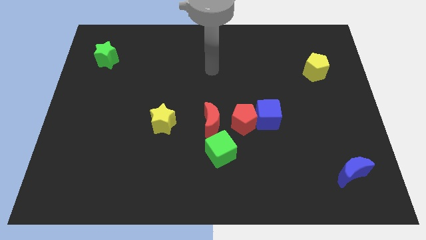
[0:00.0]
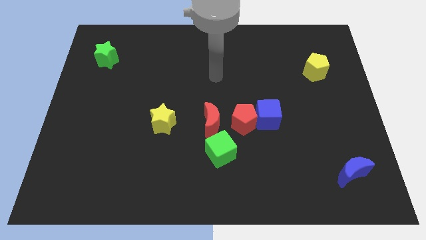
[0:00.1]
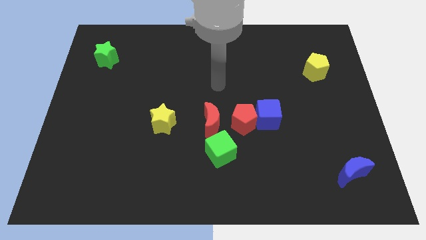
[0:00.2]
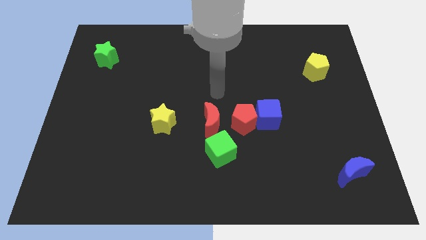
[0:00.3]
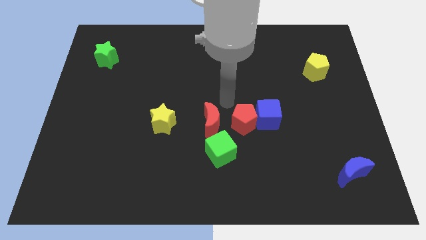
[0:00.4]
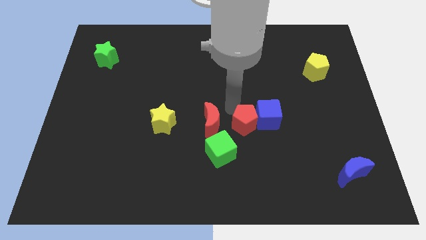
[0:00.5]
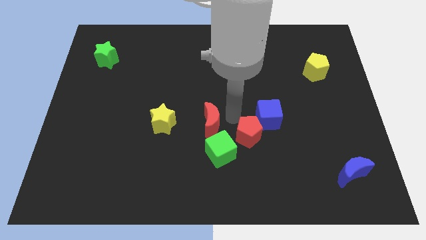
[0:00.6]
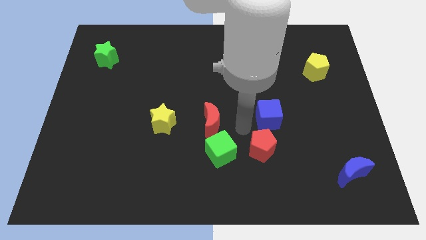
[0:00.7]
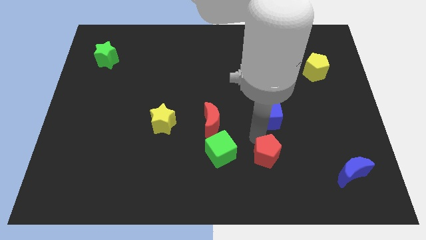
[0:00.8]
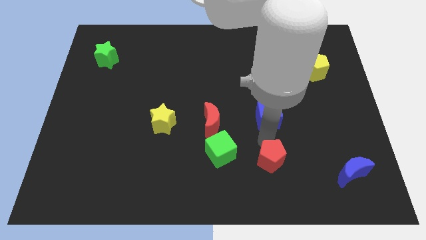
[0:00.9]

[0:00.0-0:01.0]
separate the blue cube from the red pentagon

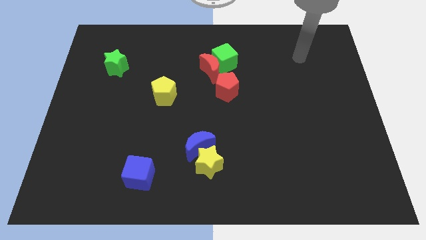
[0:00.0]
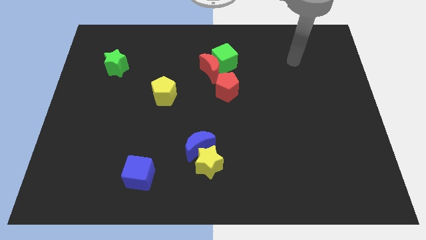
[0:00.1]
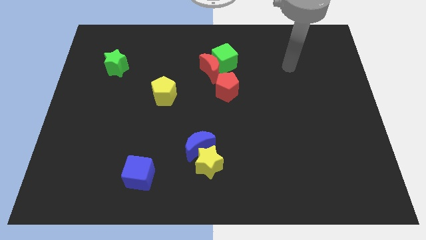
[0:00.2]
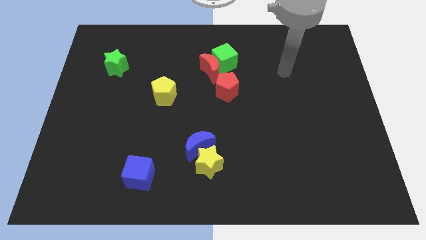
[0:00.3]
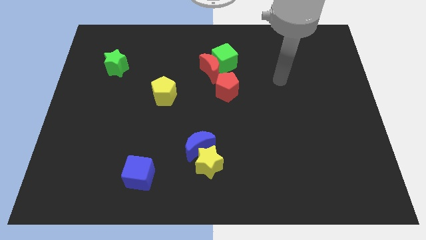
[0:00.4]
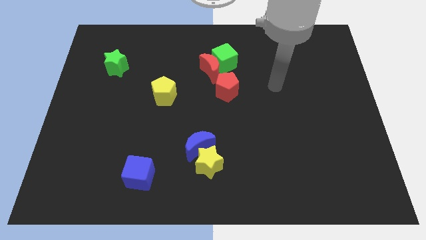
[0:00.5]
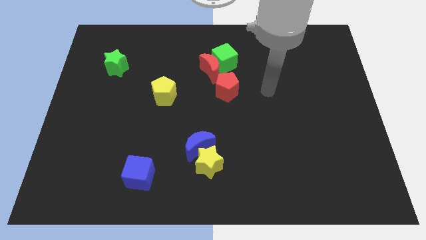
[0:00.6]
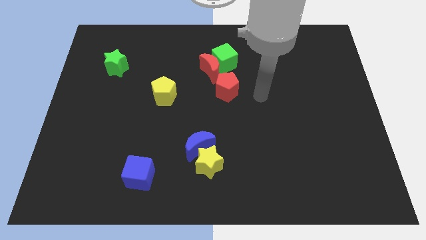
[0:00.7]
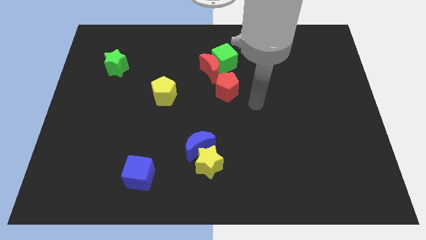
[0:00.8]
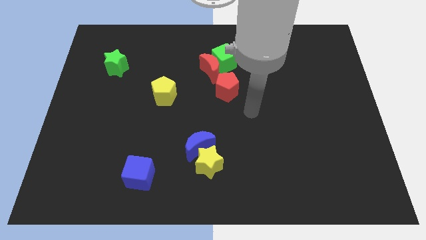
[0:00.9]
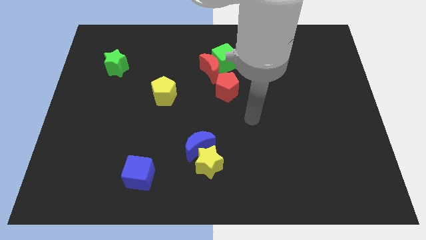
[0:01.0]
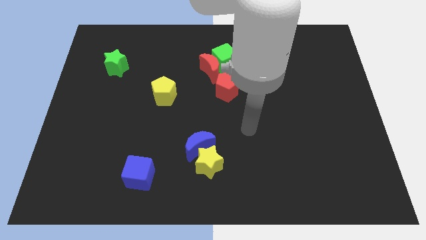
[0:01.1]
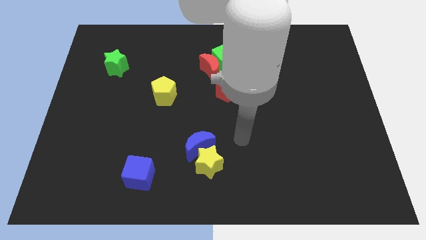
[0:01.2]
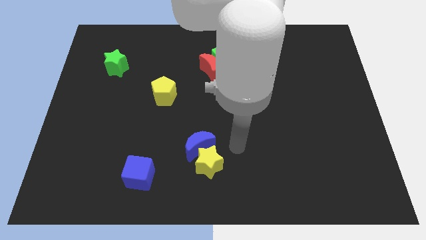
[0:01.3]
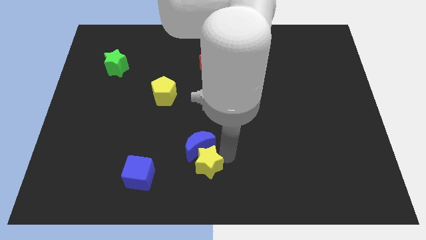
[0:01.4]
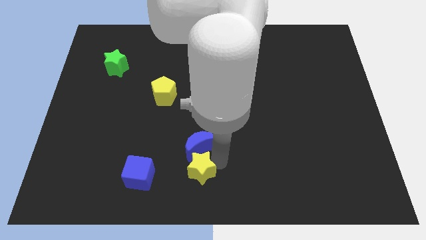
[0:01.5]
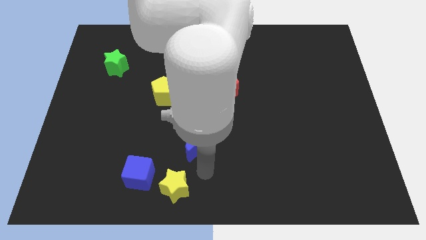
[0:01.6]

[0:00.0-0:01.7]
separate the blue moon from the yellow star

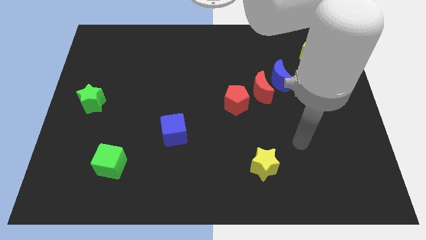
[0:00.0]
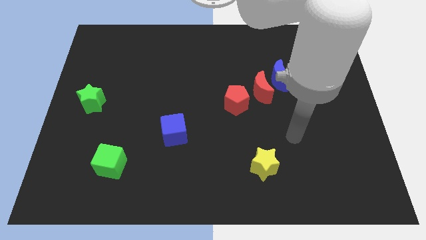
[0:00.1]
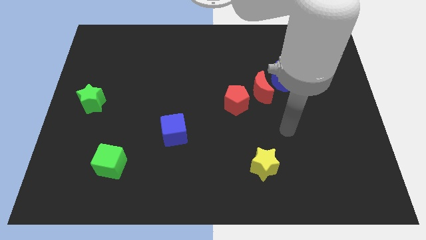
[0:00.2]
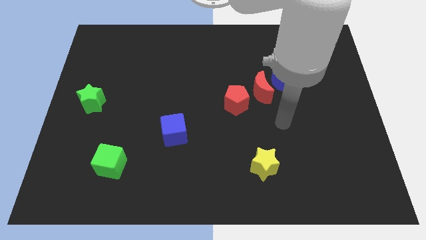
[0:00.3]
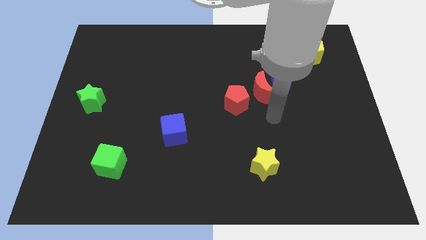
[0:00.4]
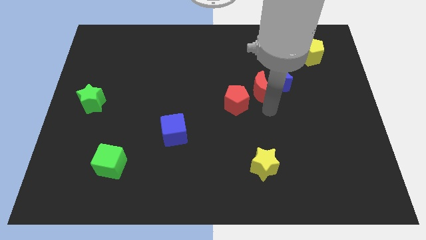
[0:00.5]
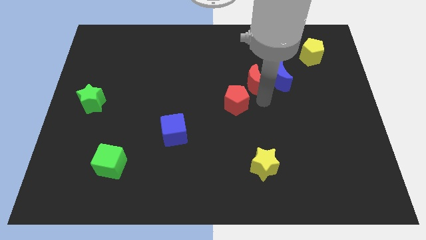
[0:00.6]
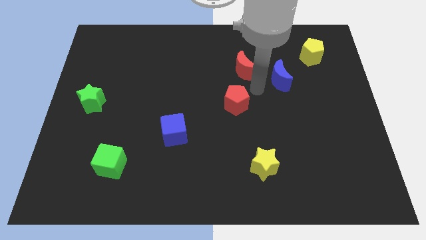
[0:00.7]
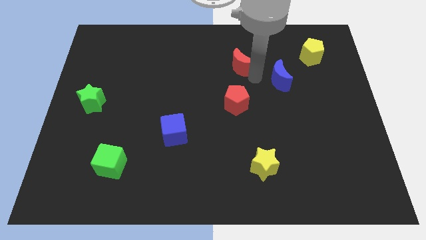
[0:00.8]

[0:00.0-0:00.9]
move the blue moon away from the red moon

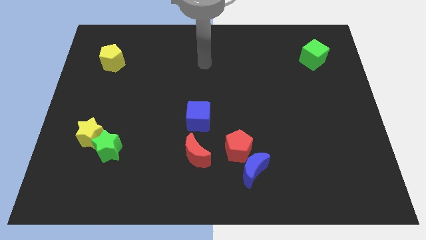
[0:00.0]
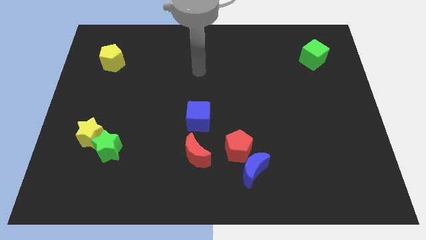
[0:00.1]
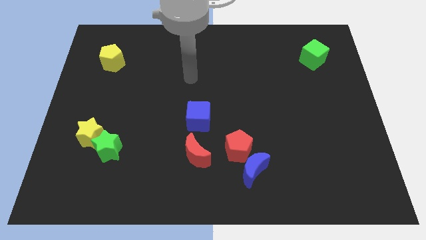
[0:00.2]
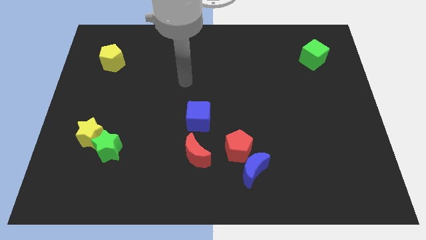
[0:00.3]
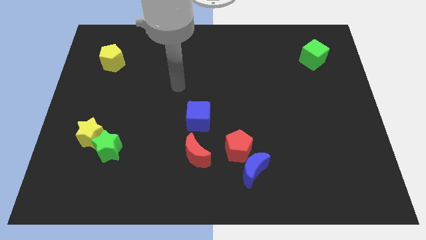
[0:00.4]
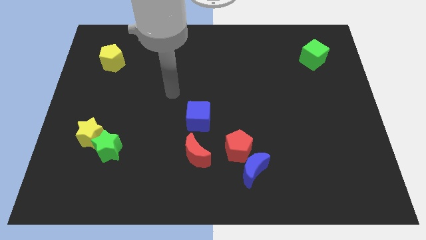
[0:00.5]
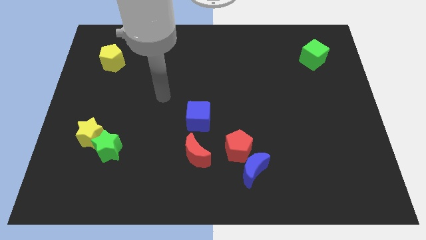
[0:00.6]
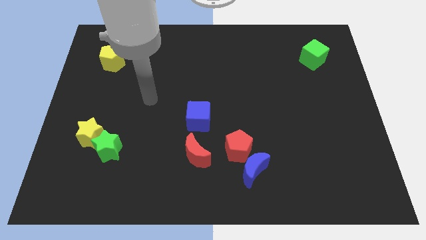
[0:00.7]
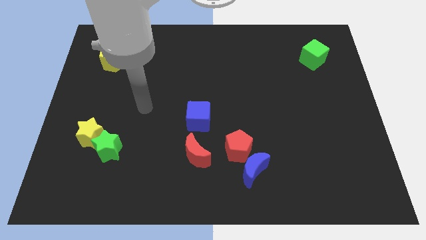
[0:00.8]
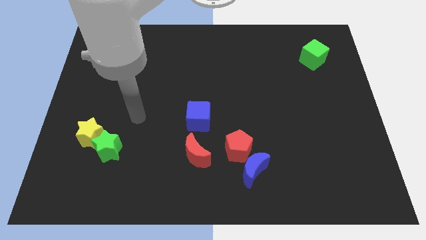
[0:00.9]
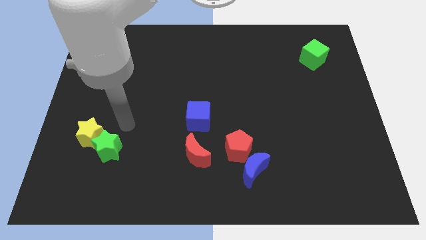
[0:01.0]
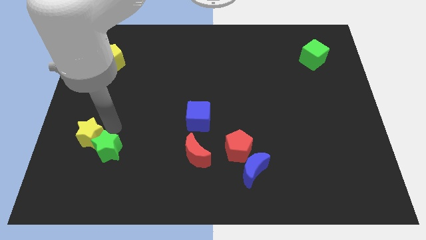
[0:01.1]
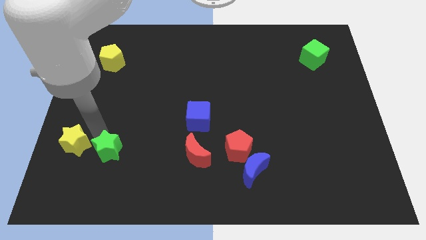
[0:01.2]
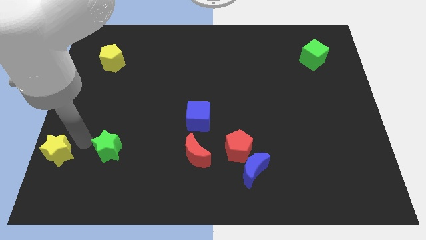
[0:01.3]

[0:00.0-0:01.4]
move the green star away from the yellow star

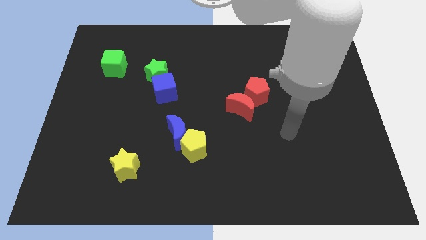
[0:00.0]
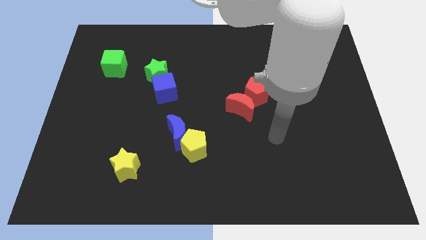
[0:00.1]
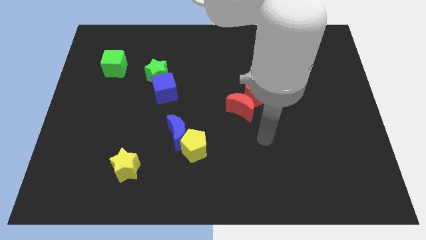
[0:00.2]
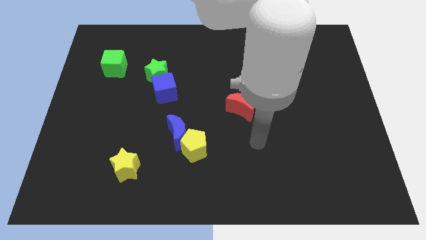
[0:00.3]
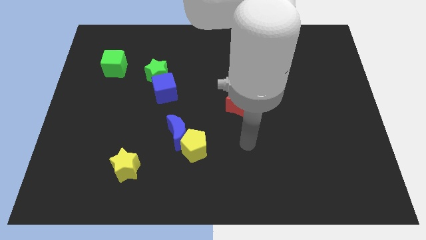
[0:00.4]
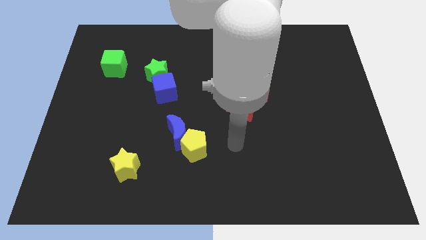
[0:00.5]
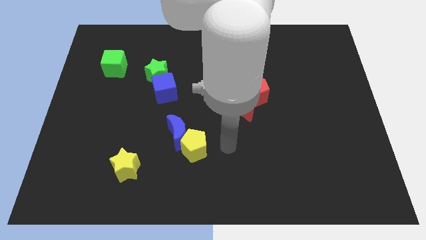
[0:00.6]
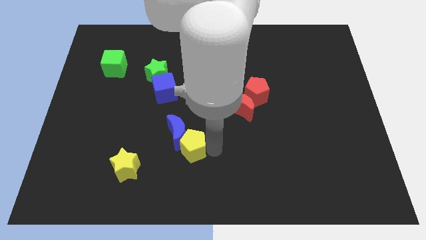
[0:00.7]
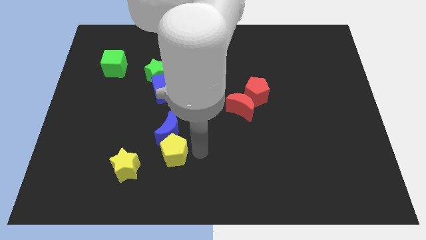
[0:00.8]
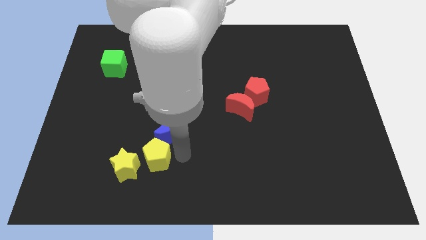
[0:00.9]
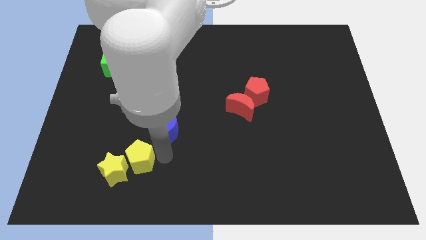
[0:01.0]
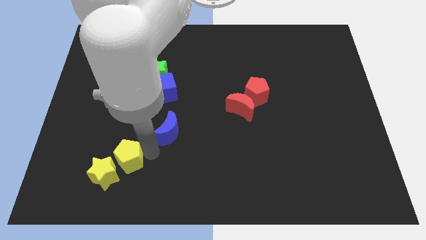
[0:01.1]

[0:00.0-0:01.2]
move the blue moon away from the yellow pentagon

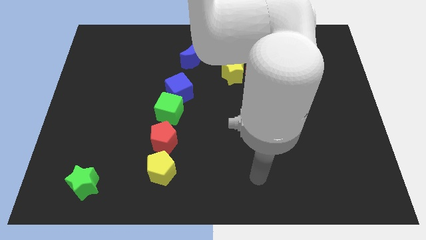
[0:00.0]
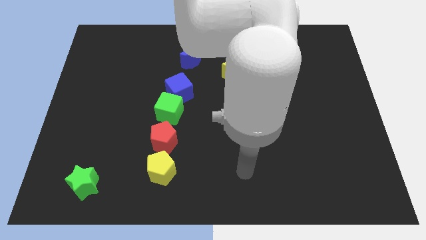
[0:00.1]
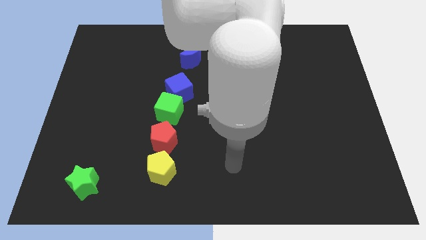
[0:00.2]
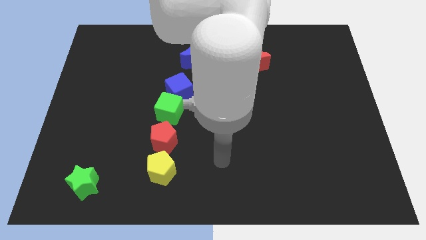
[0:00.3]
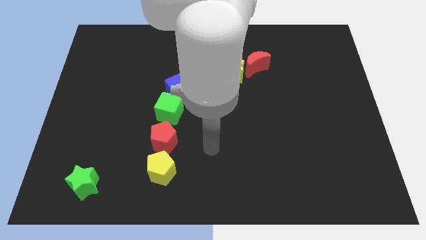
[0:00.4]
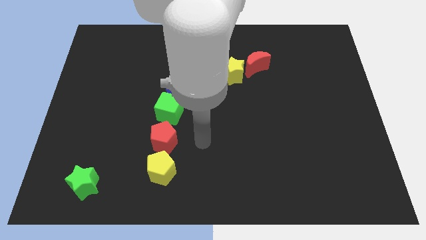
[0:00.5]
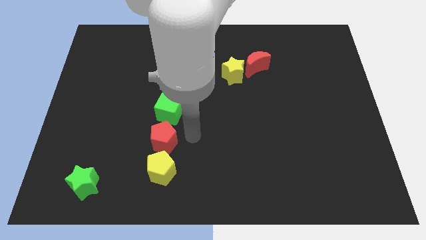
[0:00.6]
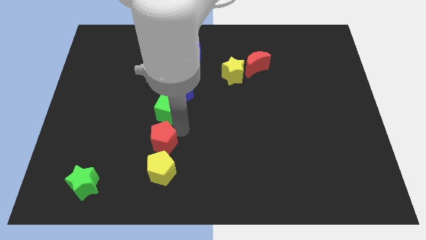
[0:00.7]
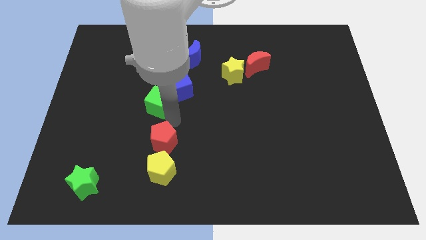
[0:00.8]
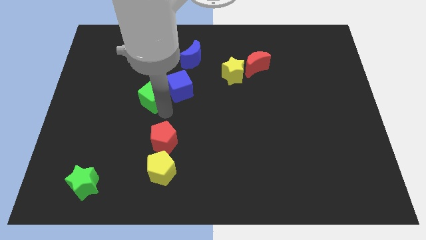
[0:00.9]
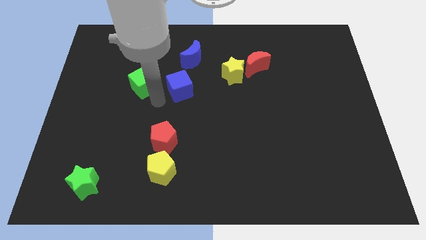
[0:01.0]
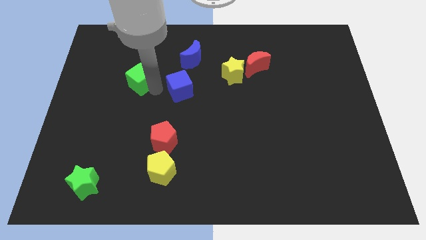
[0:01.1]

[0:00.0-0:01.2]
separate the blue cube from the green cube

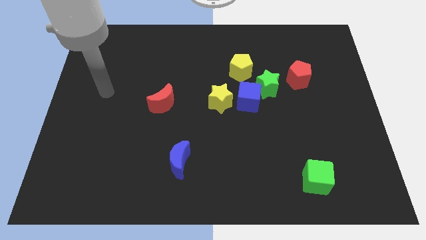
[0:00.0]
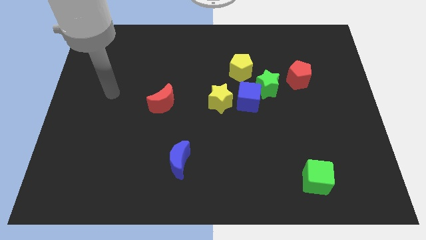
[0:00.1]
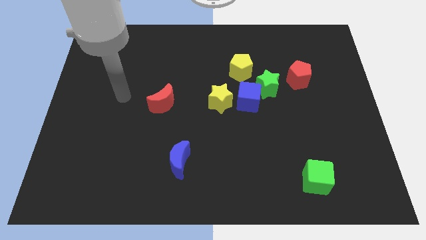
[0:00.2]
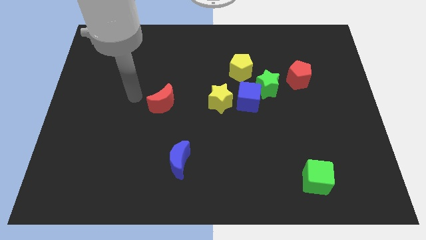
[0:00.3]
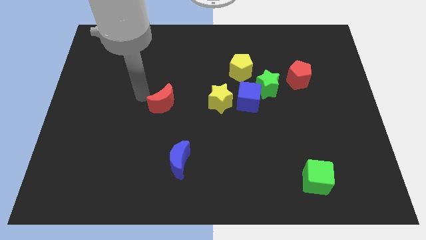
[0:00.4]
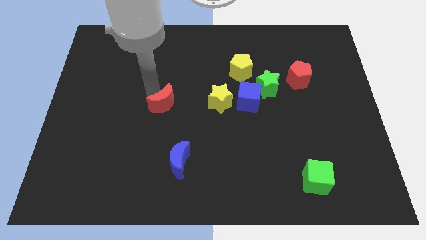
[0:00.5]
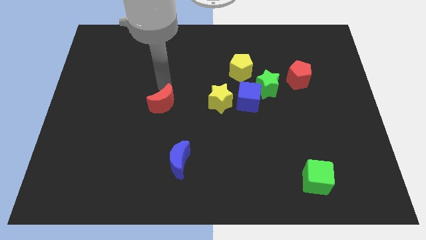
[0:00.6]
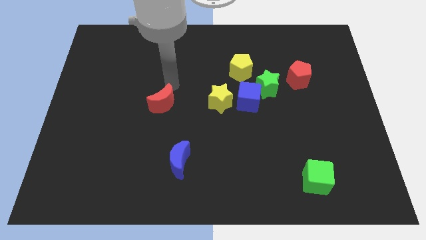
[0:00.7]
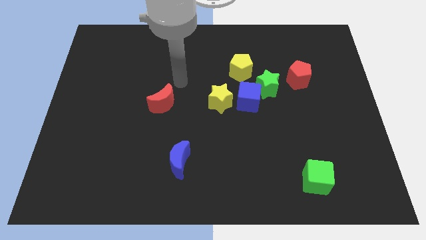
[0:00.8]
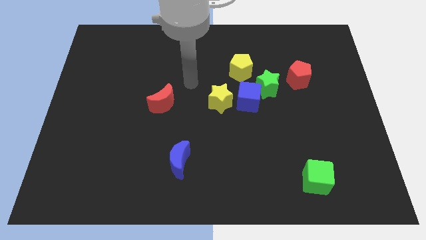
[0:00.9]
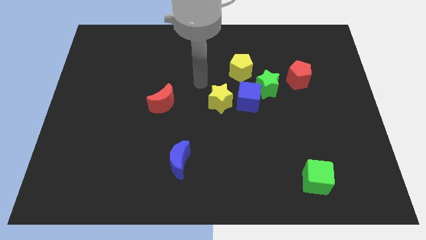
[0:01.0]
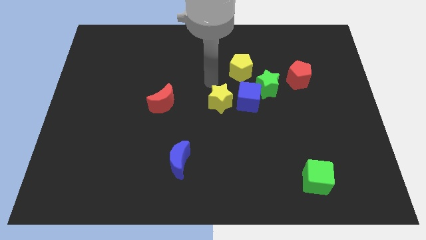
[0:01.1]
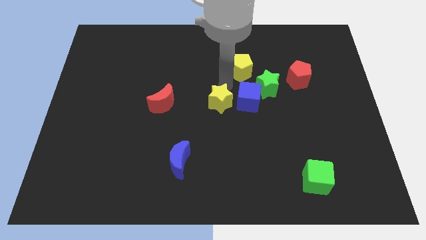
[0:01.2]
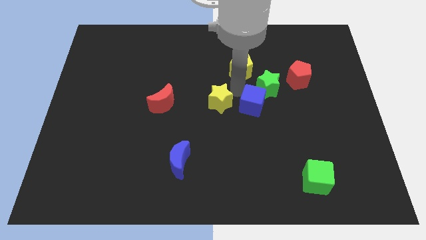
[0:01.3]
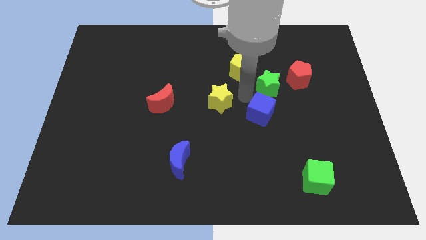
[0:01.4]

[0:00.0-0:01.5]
separate the yellow star from the blue cube

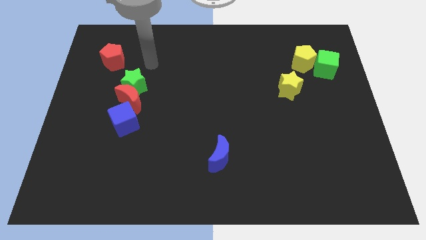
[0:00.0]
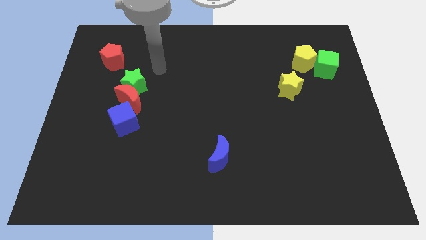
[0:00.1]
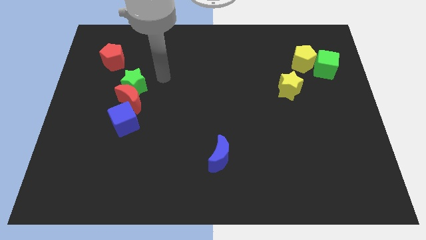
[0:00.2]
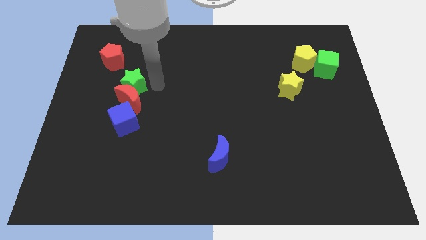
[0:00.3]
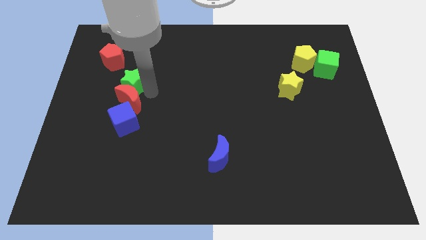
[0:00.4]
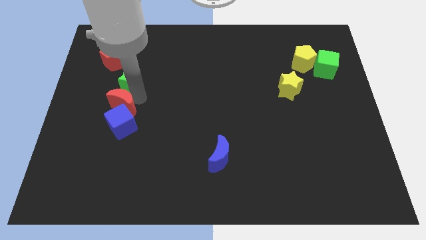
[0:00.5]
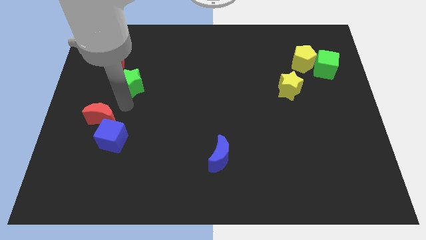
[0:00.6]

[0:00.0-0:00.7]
separate the green star from the red moon
